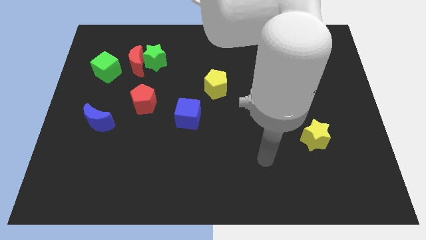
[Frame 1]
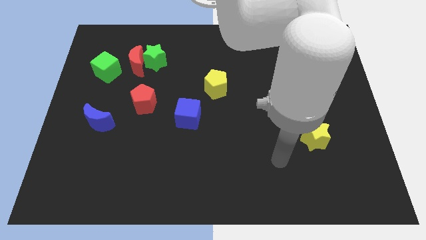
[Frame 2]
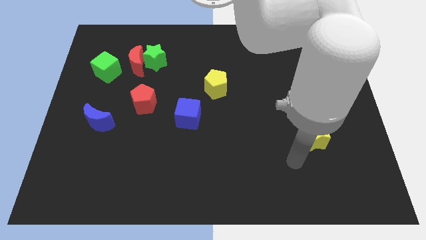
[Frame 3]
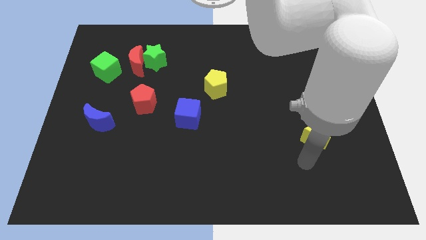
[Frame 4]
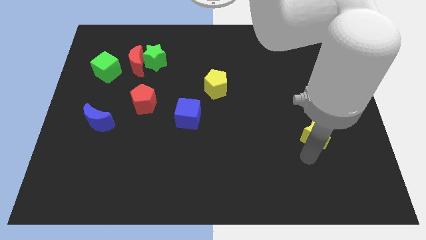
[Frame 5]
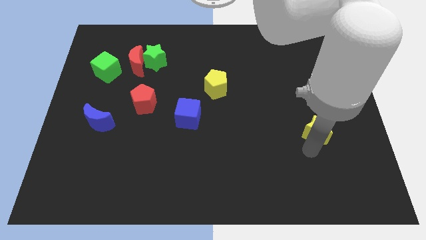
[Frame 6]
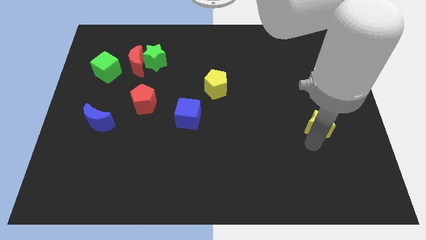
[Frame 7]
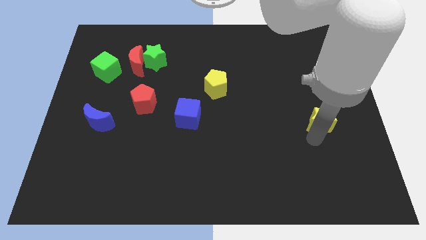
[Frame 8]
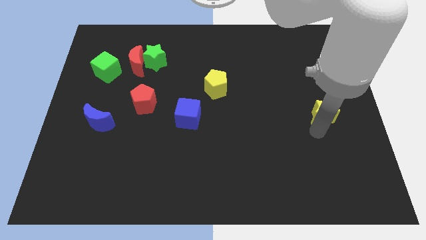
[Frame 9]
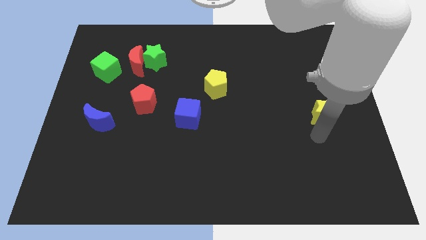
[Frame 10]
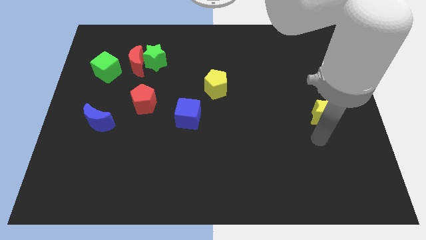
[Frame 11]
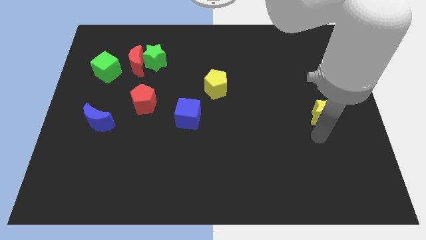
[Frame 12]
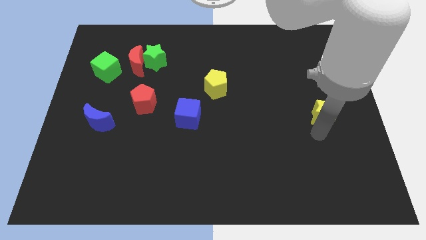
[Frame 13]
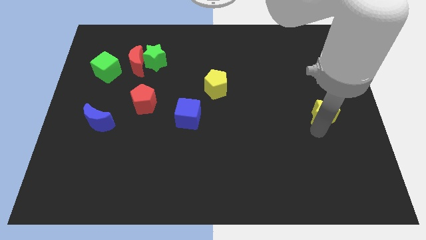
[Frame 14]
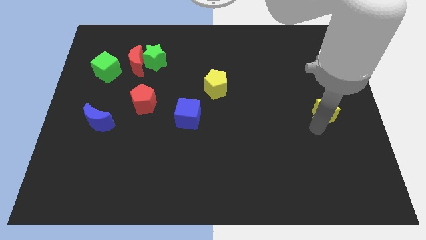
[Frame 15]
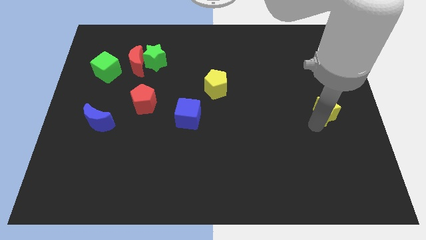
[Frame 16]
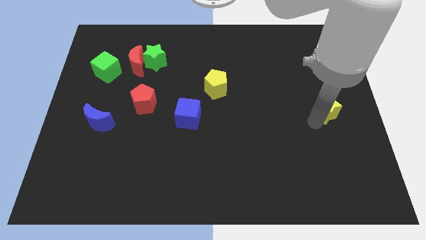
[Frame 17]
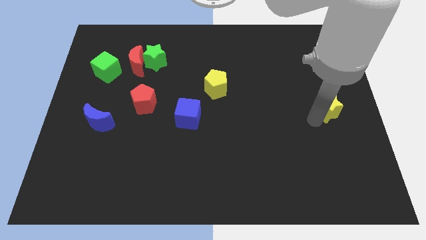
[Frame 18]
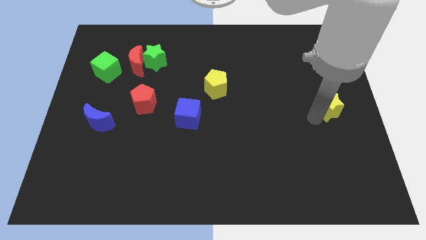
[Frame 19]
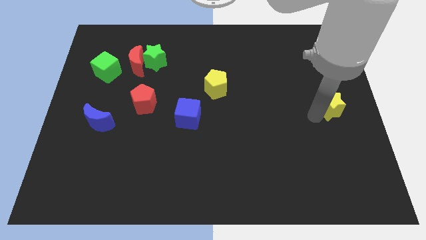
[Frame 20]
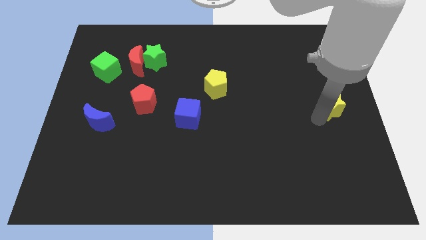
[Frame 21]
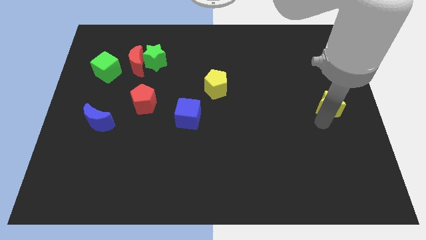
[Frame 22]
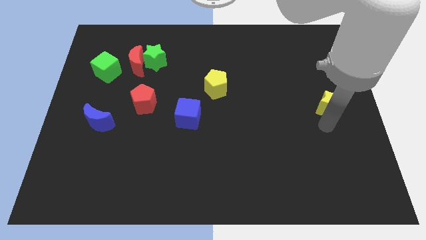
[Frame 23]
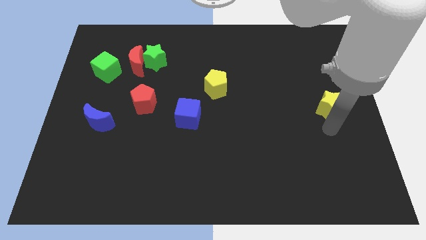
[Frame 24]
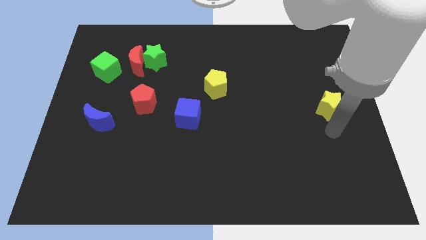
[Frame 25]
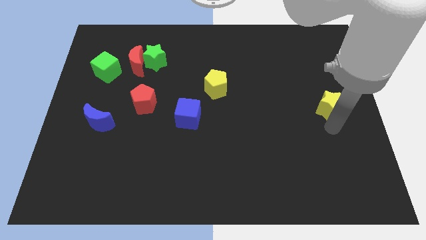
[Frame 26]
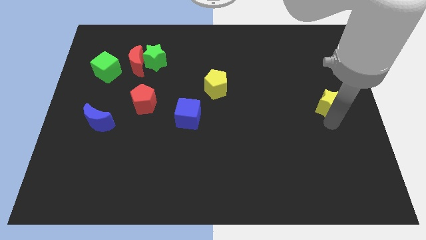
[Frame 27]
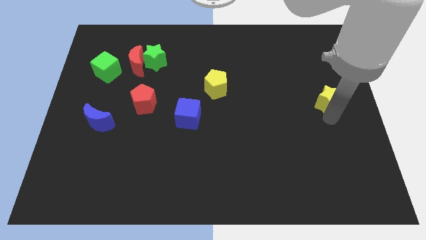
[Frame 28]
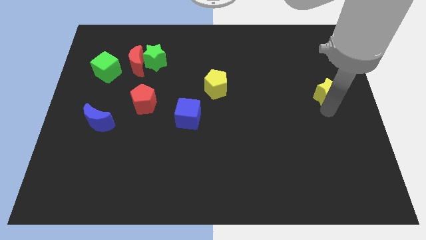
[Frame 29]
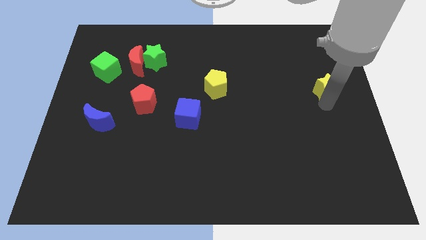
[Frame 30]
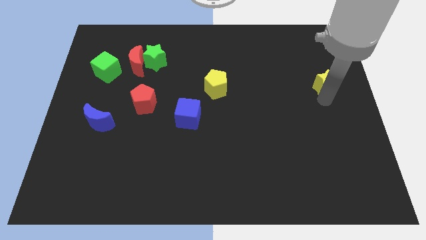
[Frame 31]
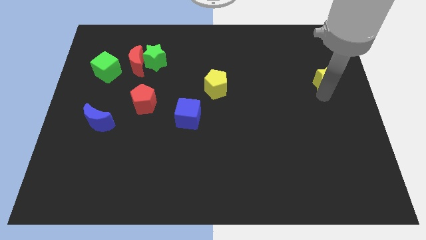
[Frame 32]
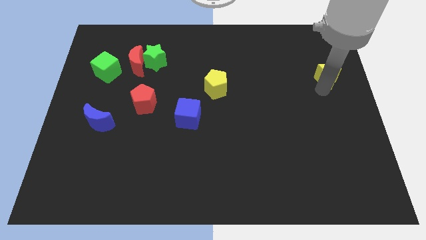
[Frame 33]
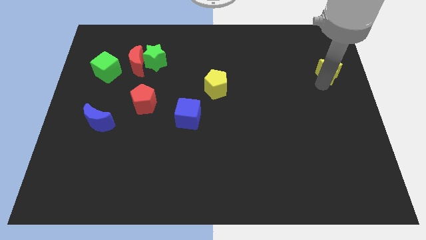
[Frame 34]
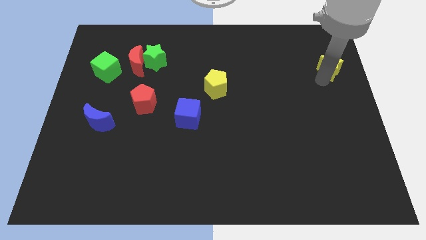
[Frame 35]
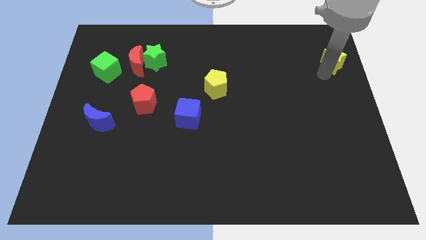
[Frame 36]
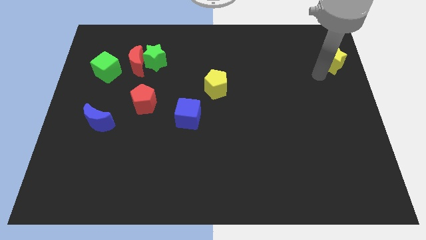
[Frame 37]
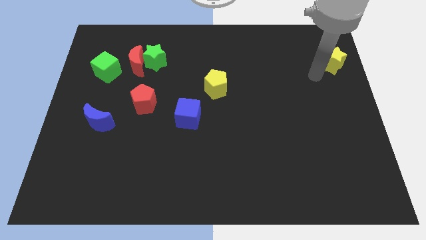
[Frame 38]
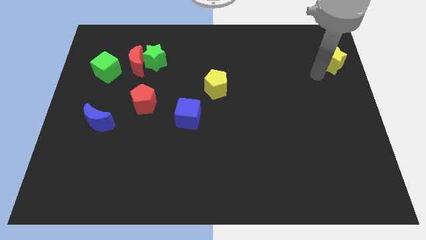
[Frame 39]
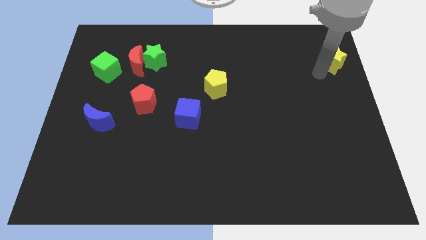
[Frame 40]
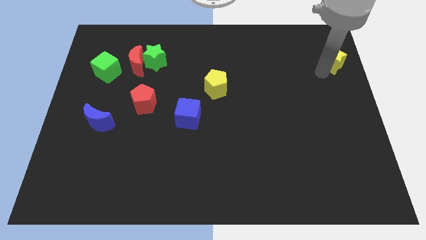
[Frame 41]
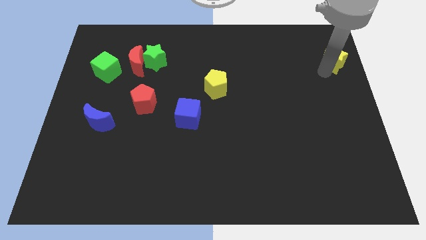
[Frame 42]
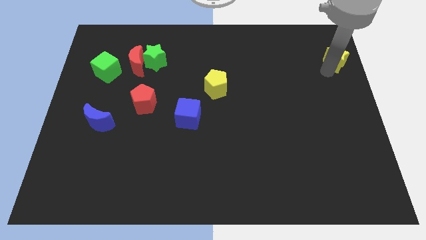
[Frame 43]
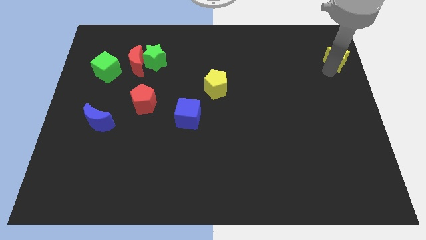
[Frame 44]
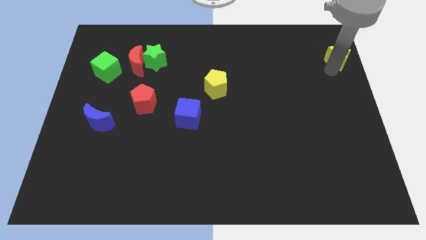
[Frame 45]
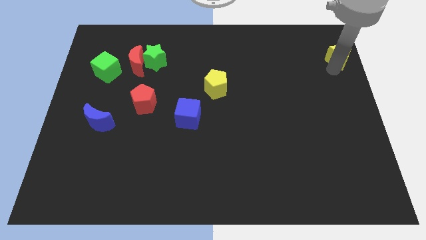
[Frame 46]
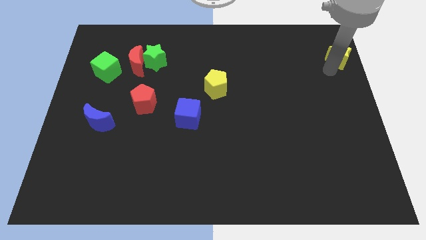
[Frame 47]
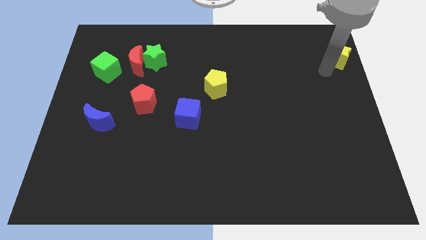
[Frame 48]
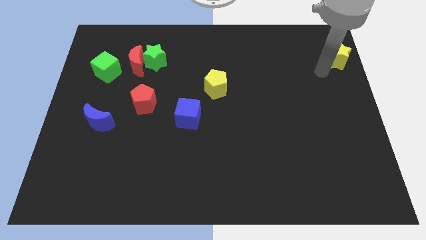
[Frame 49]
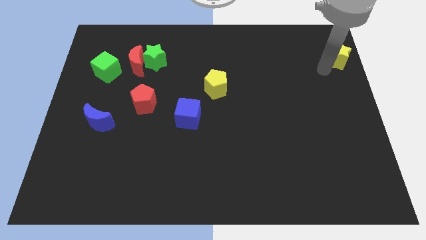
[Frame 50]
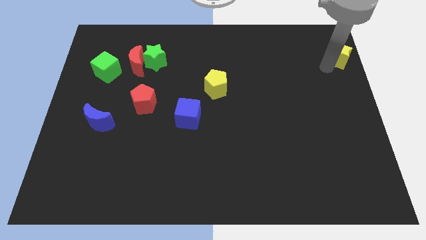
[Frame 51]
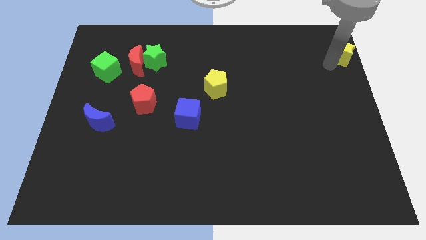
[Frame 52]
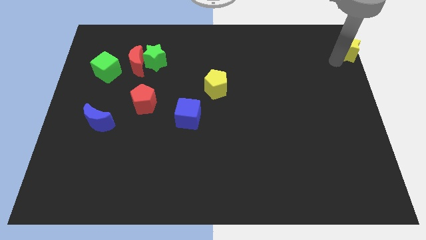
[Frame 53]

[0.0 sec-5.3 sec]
put the yellow star to the top right of the board
